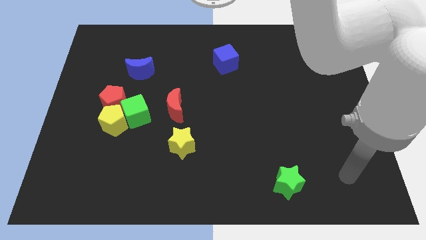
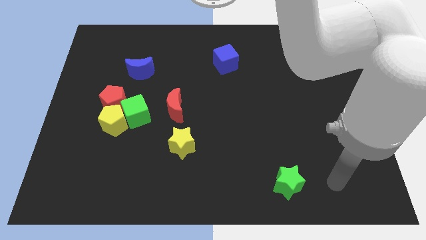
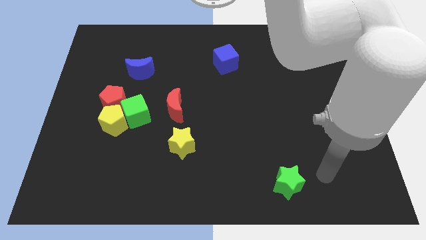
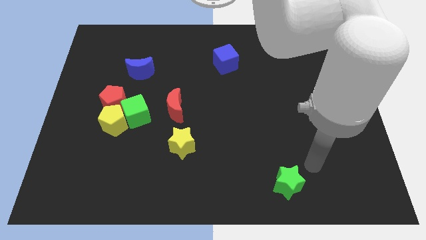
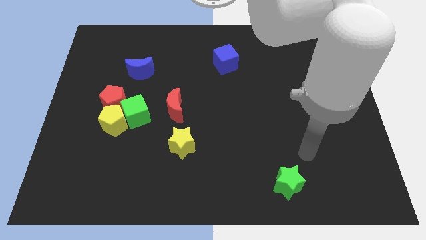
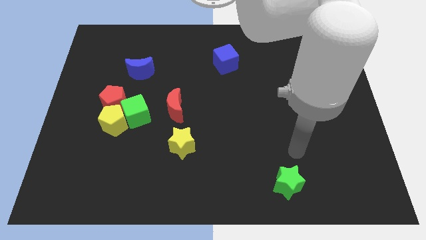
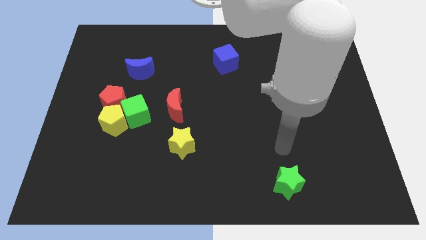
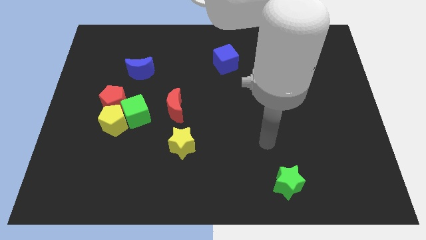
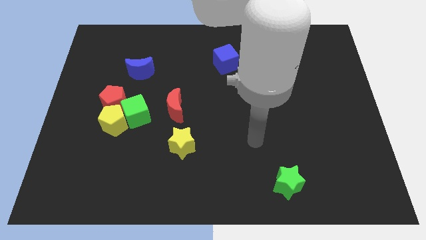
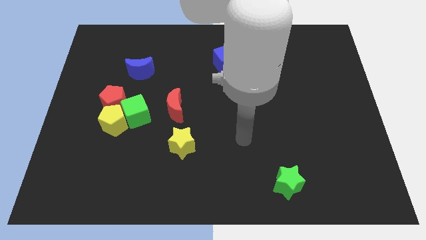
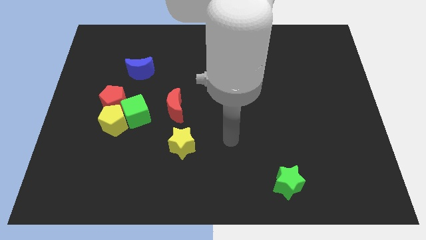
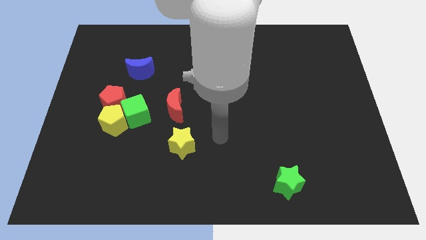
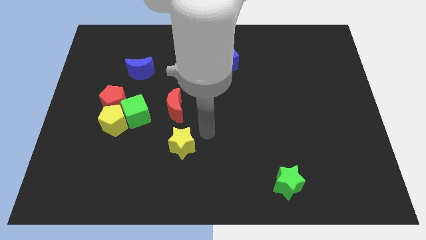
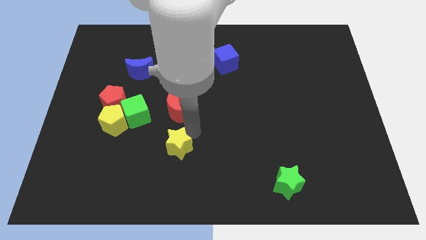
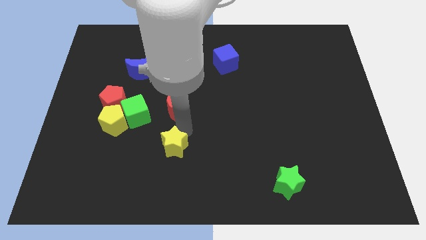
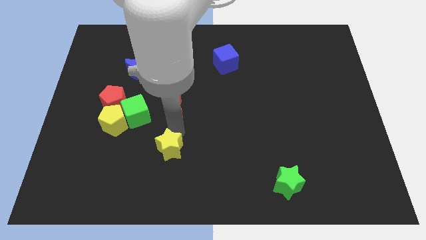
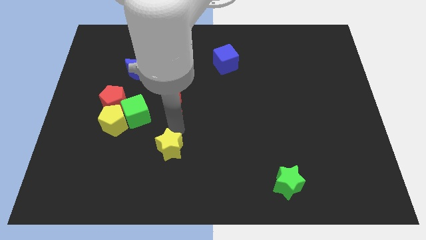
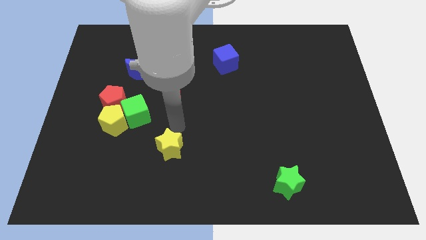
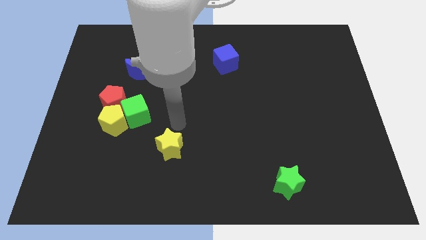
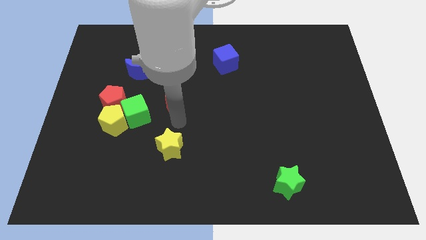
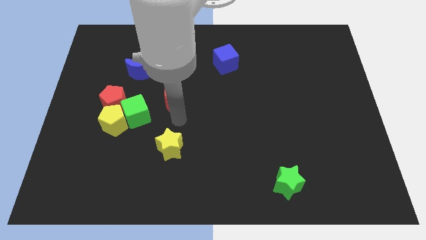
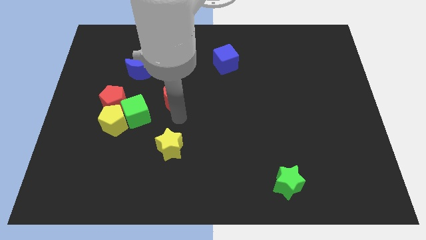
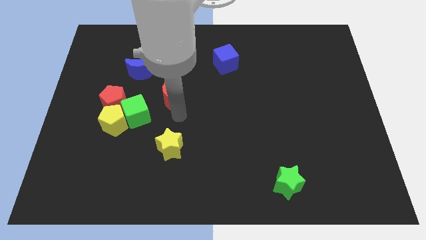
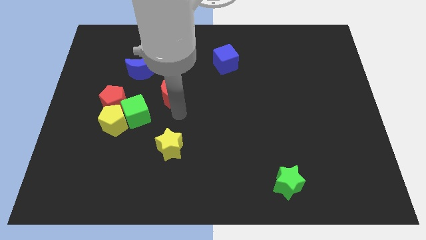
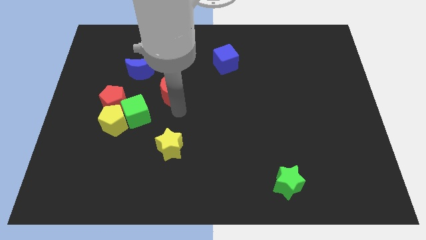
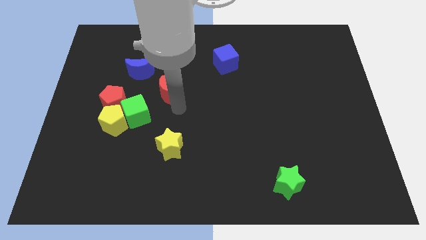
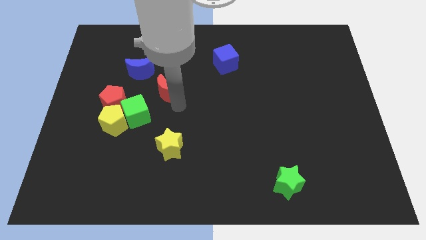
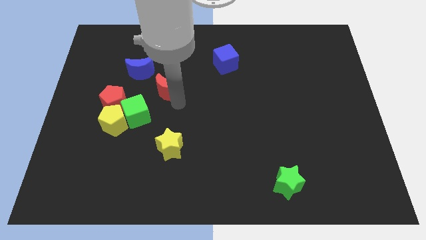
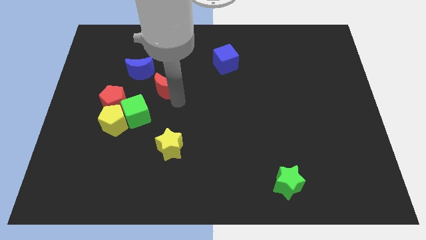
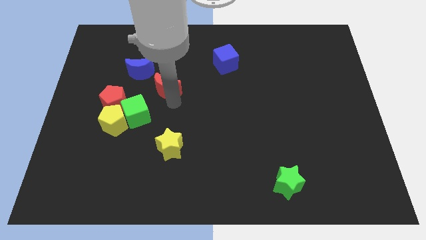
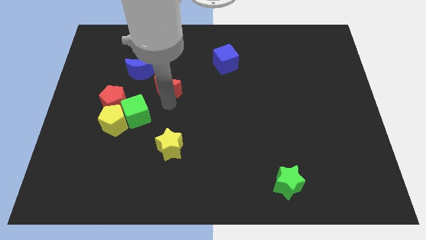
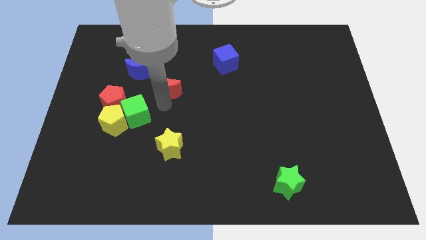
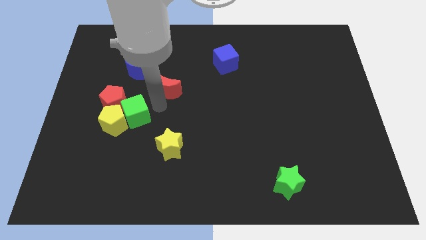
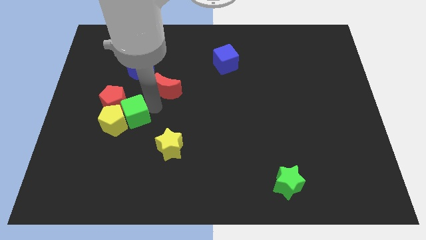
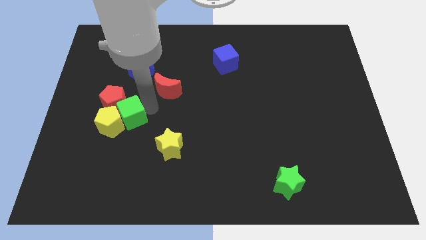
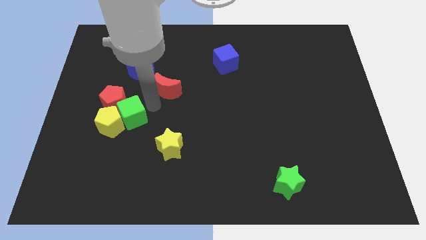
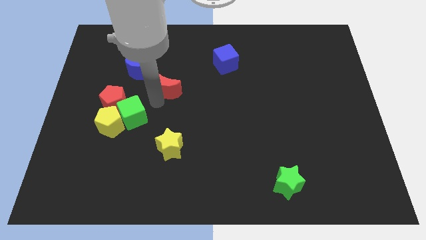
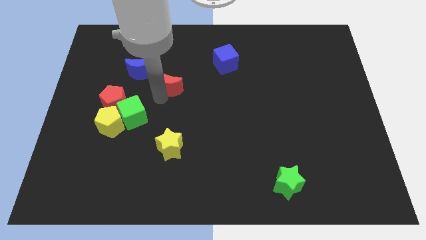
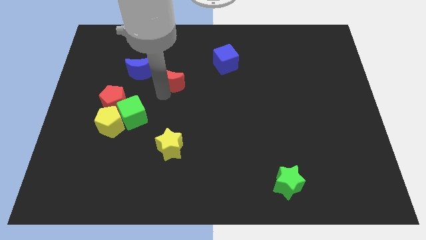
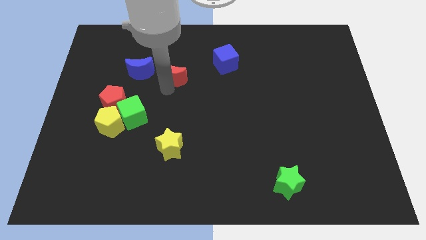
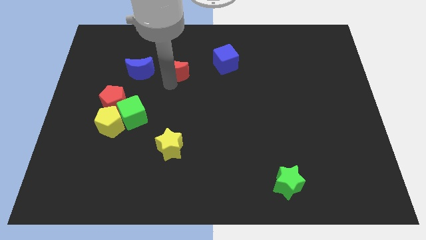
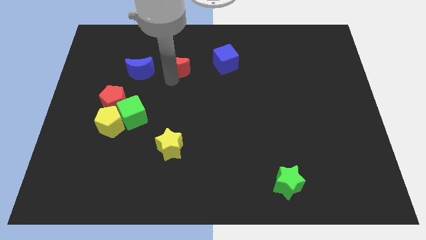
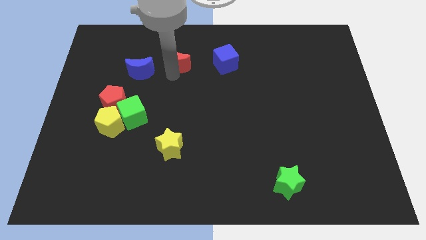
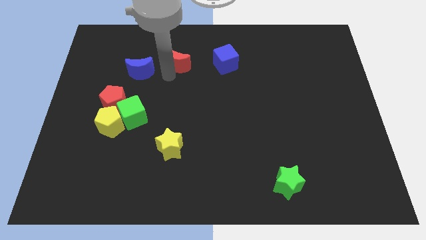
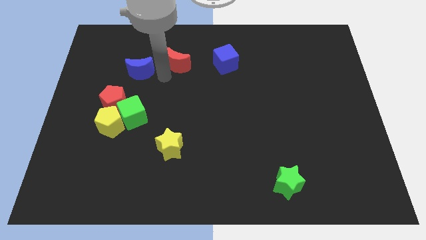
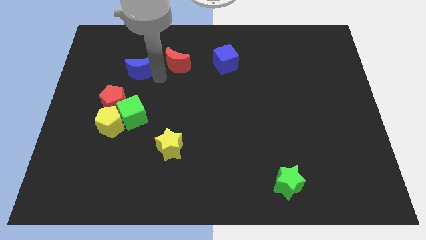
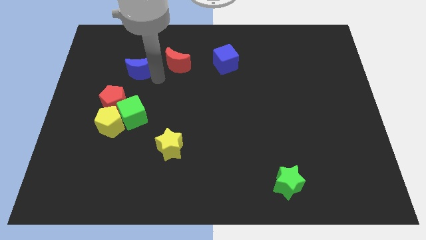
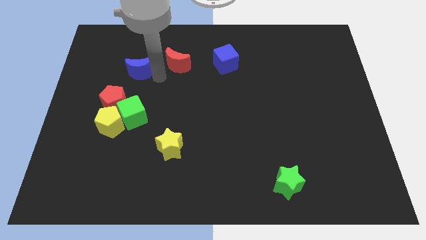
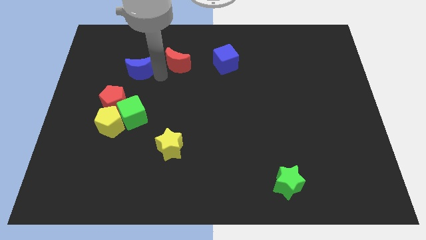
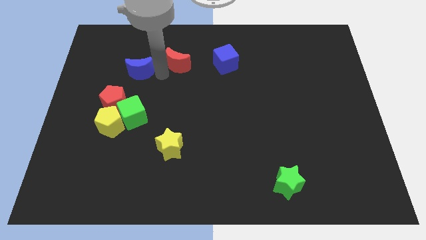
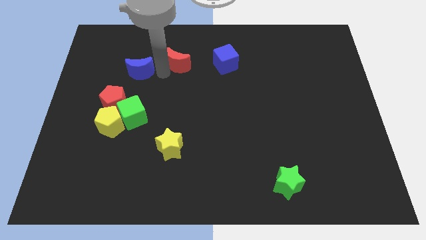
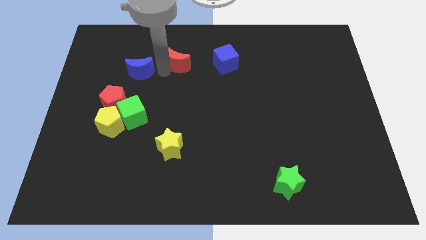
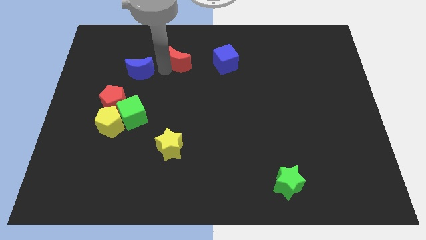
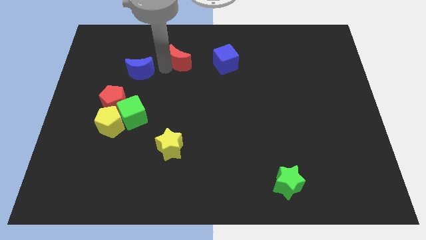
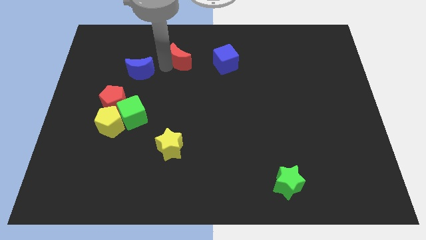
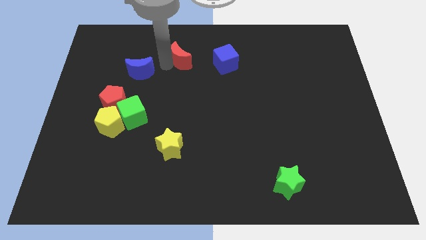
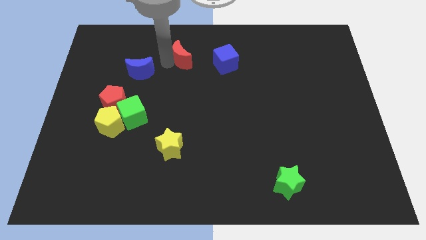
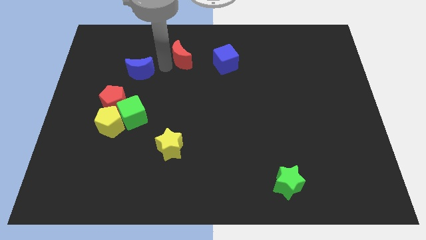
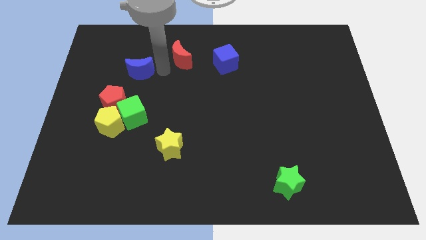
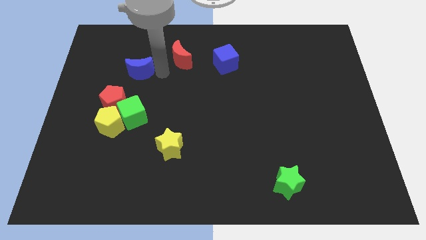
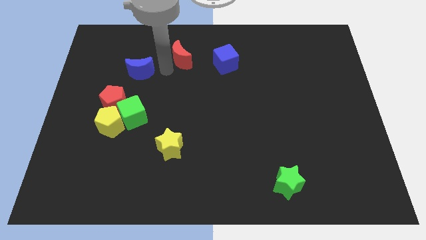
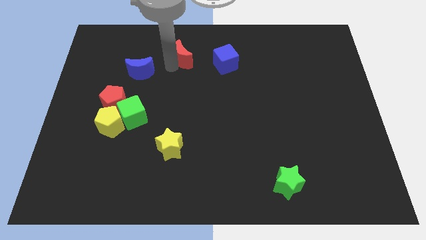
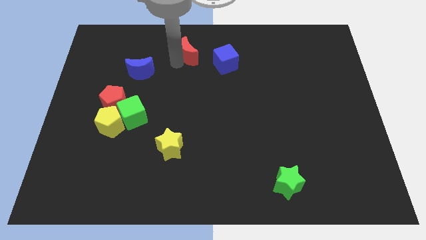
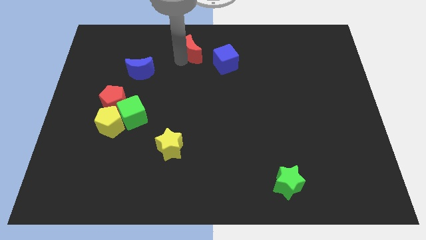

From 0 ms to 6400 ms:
slide the red moon to the top side

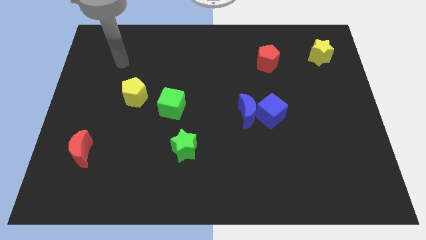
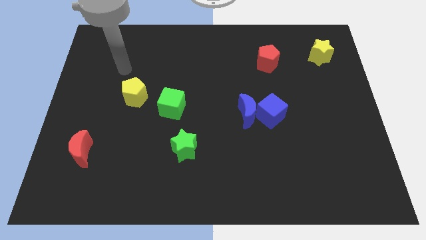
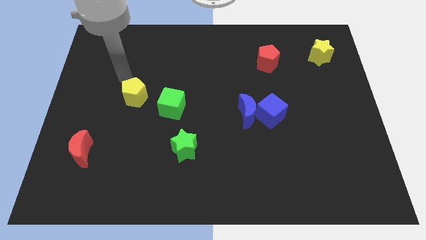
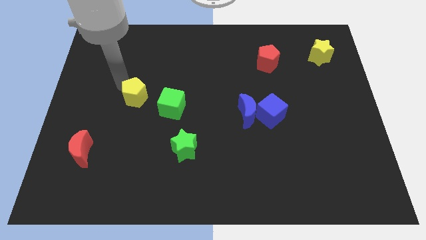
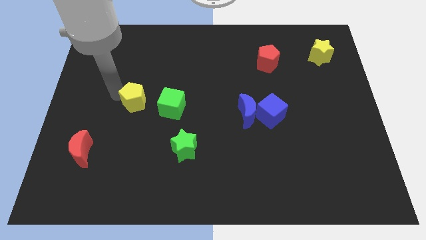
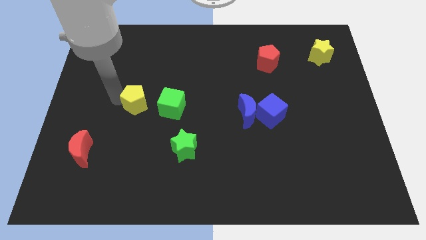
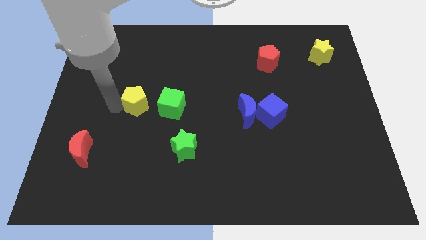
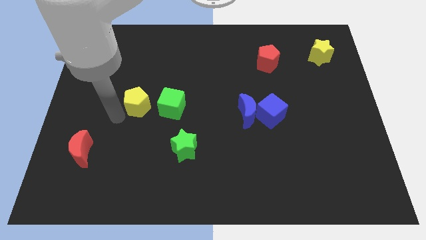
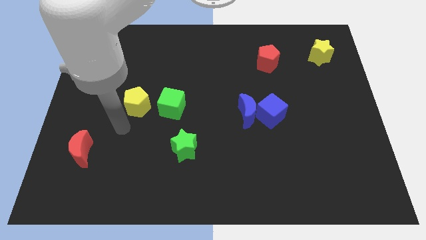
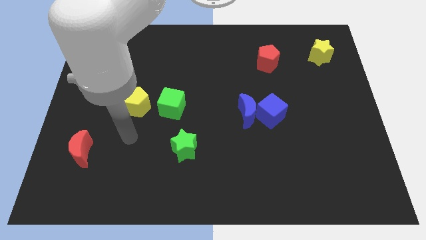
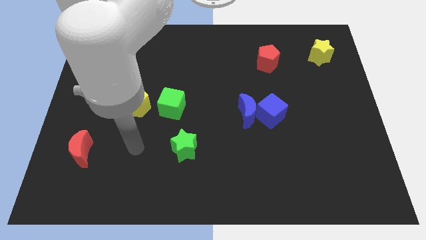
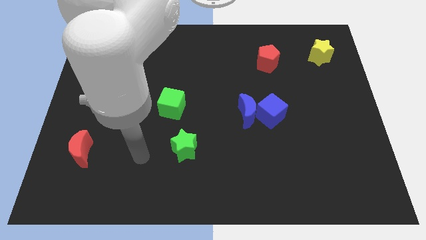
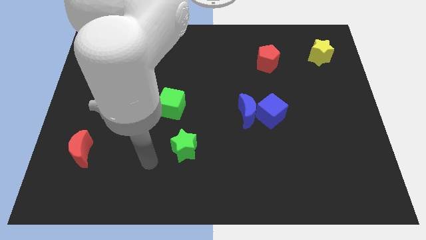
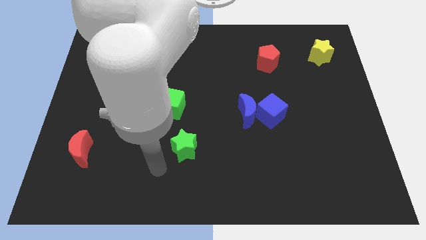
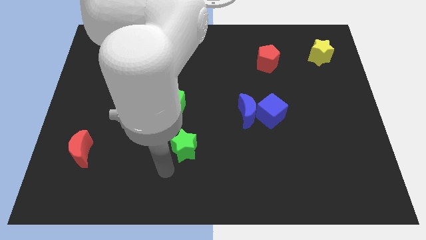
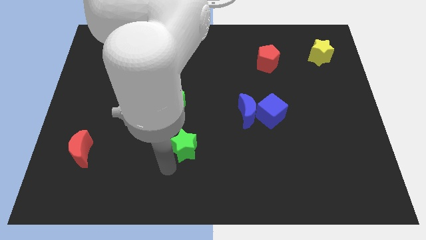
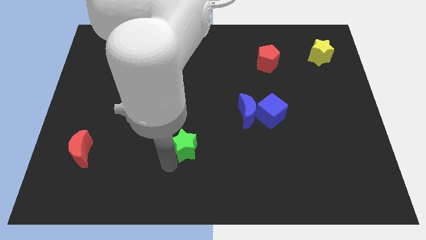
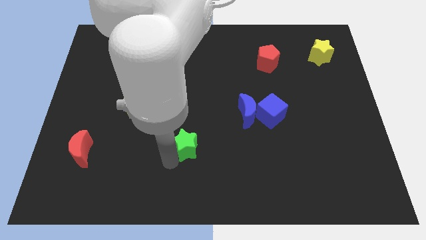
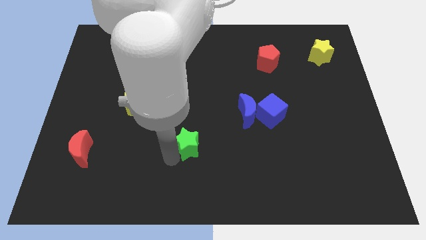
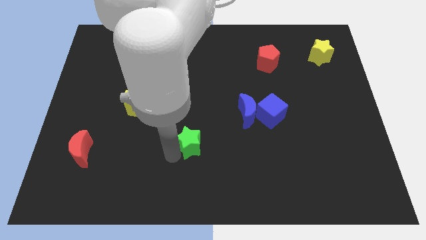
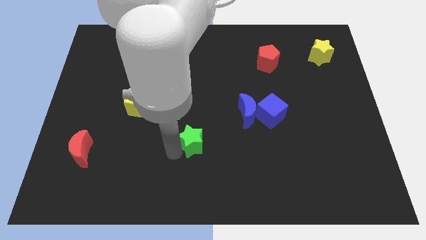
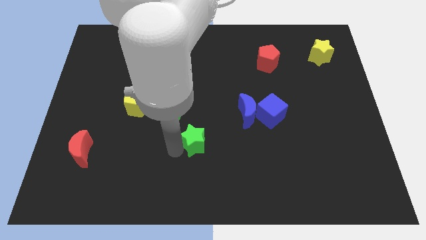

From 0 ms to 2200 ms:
put the green star to the middle
